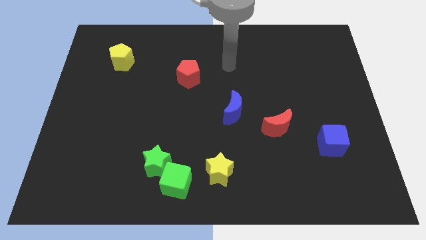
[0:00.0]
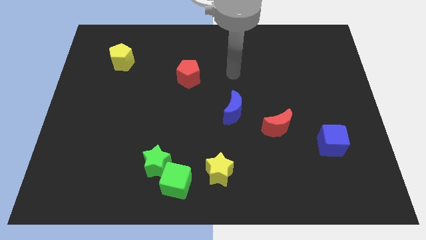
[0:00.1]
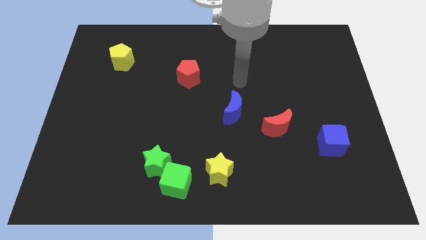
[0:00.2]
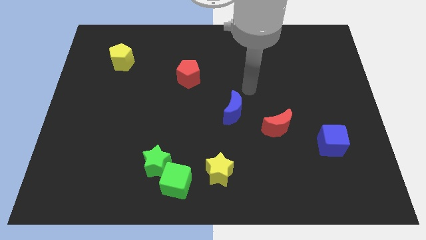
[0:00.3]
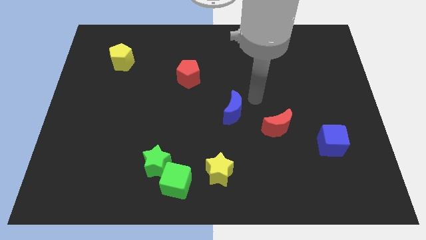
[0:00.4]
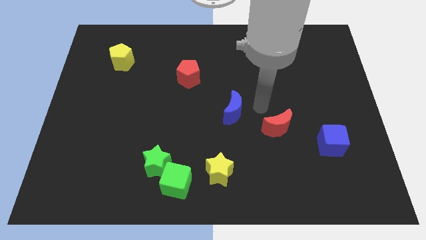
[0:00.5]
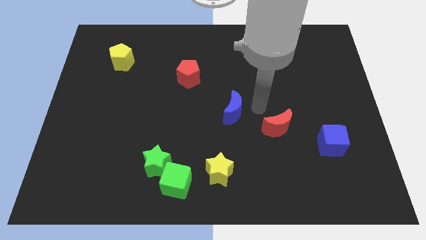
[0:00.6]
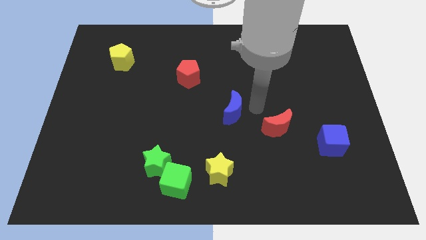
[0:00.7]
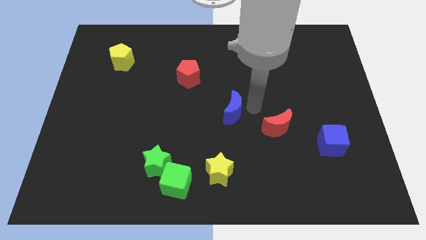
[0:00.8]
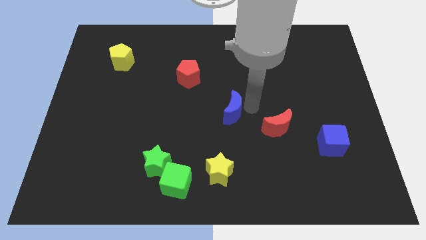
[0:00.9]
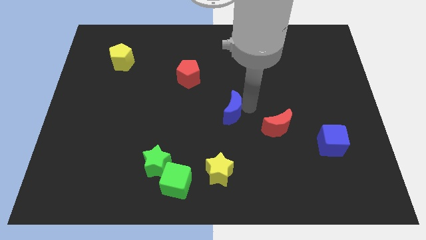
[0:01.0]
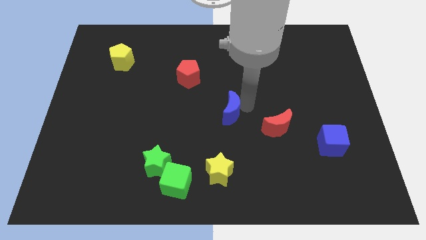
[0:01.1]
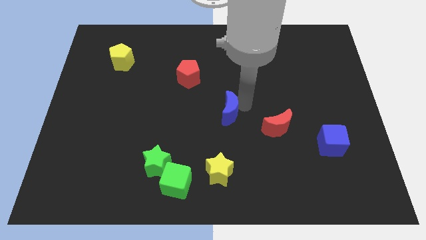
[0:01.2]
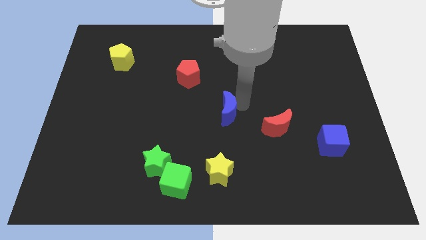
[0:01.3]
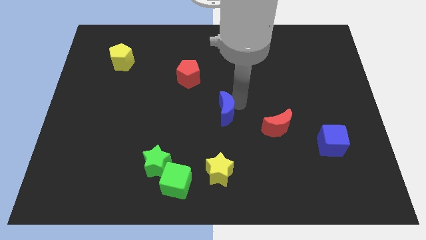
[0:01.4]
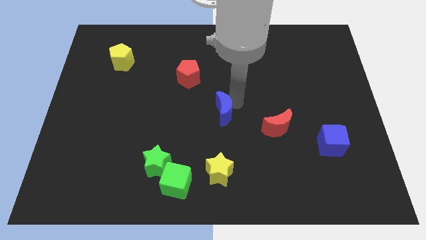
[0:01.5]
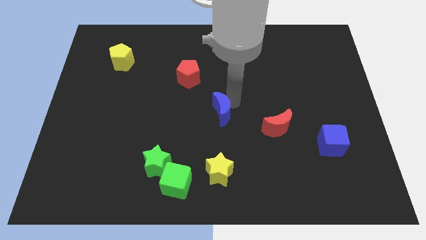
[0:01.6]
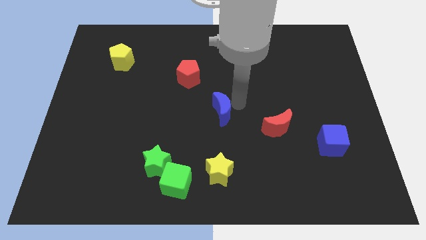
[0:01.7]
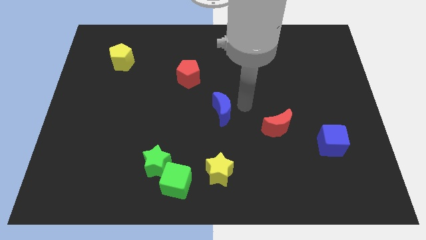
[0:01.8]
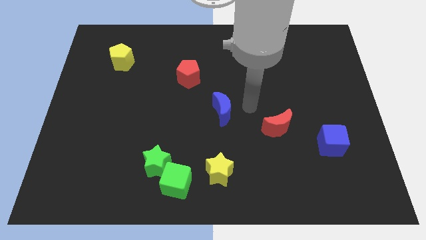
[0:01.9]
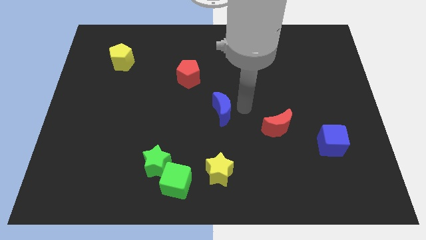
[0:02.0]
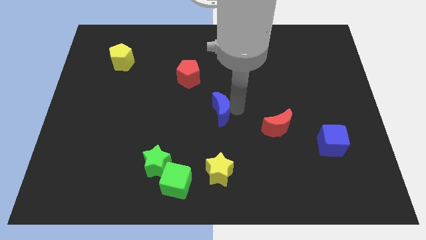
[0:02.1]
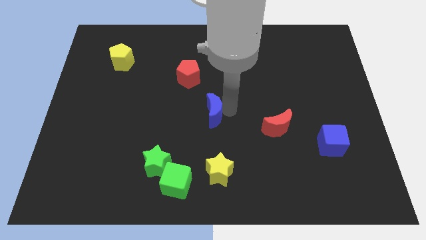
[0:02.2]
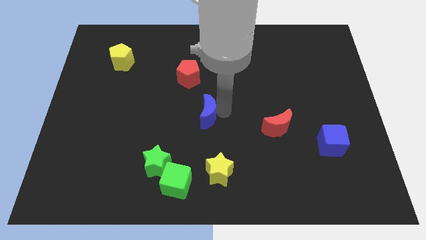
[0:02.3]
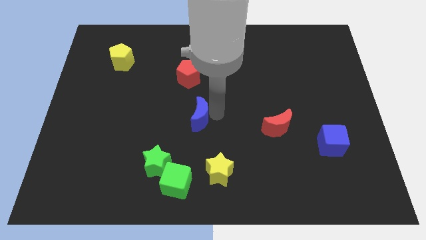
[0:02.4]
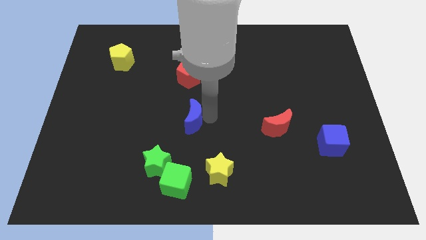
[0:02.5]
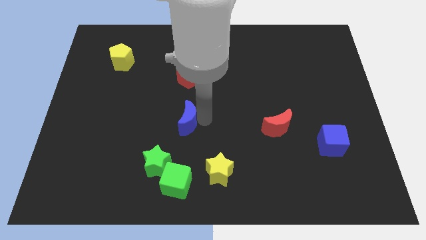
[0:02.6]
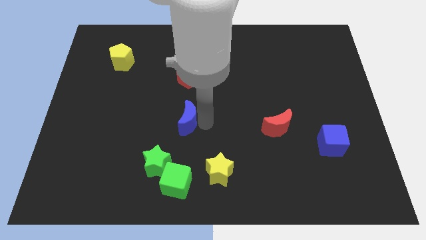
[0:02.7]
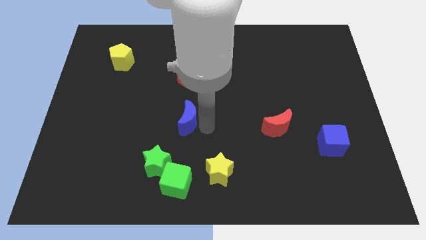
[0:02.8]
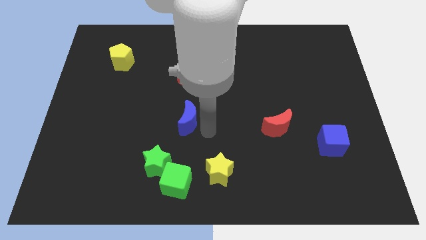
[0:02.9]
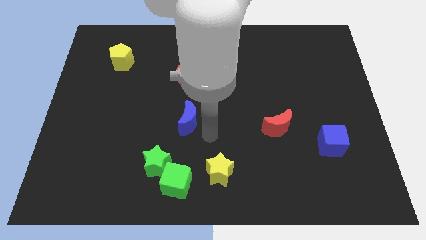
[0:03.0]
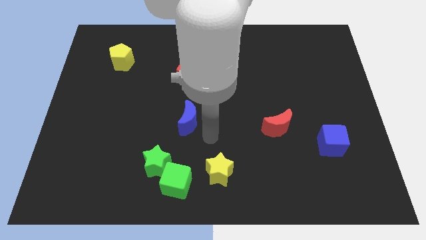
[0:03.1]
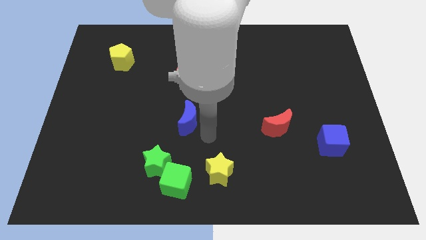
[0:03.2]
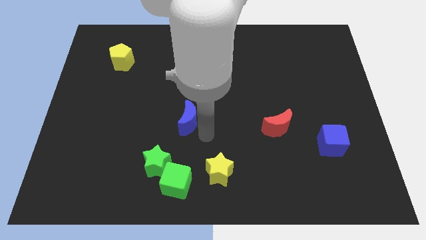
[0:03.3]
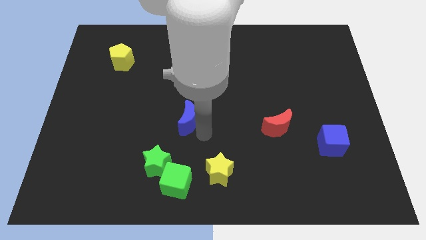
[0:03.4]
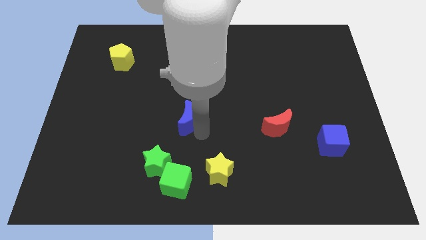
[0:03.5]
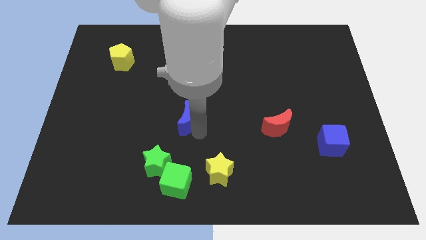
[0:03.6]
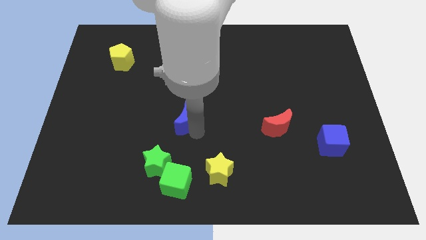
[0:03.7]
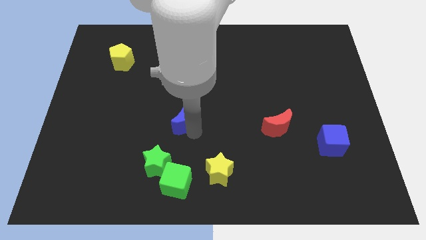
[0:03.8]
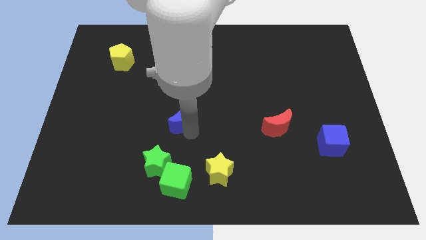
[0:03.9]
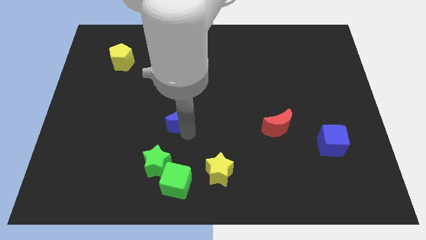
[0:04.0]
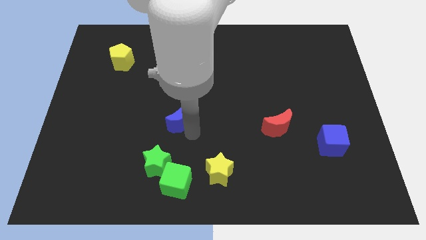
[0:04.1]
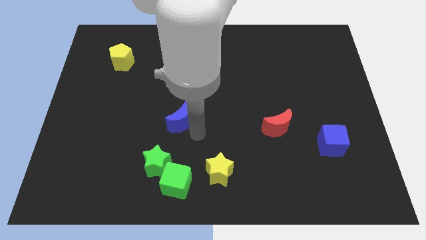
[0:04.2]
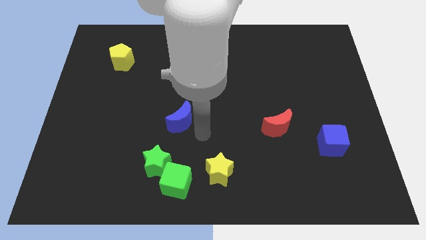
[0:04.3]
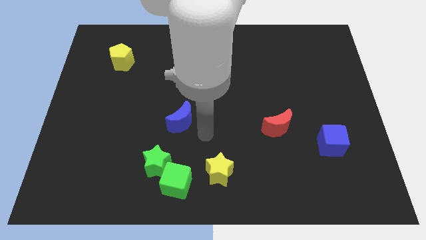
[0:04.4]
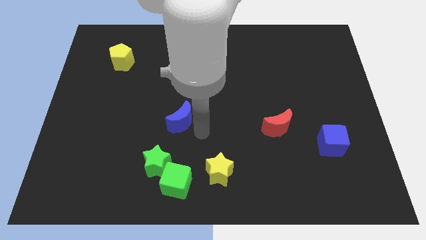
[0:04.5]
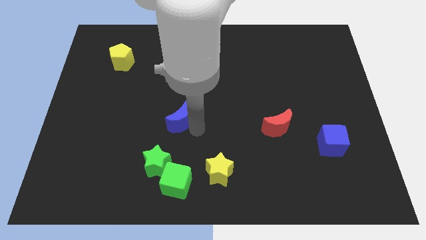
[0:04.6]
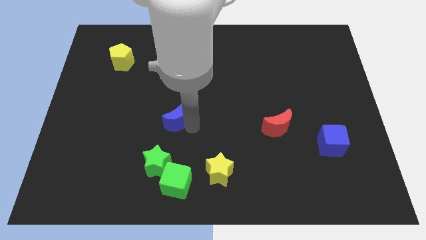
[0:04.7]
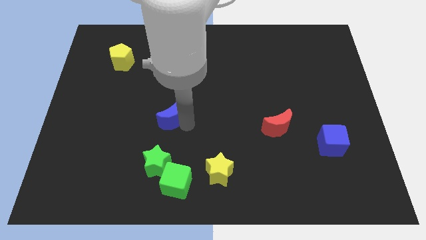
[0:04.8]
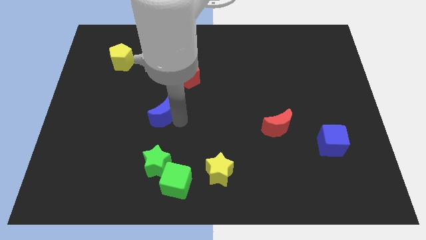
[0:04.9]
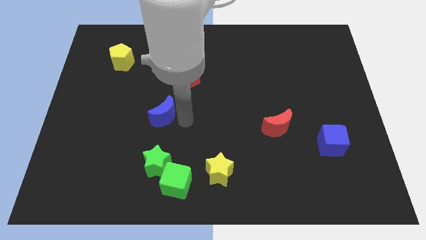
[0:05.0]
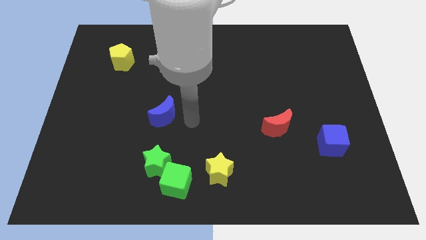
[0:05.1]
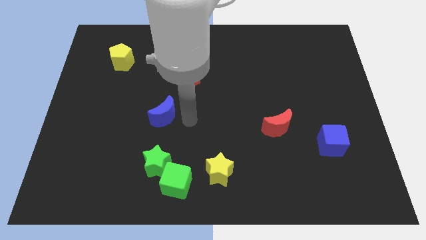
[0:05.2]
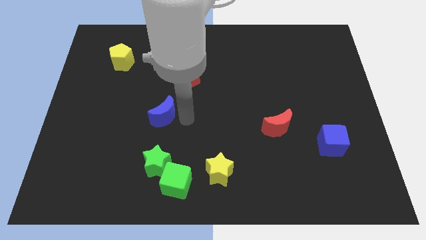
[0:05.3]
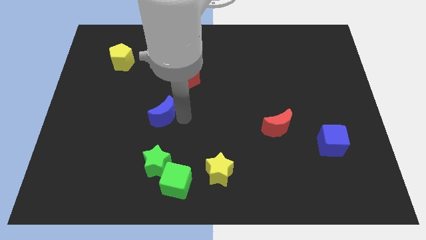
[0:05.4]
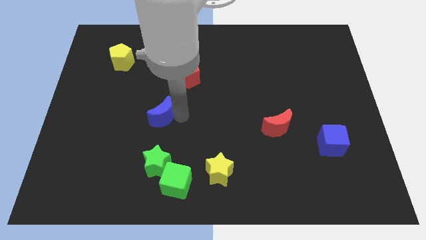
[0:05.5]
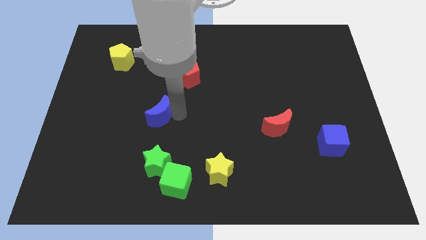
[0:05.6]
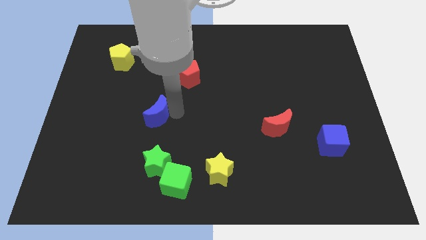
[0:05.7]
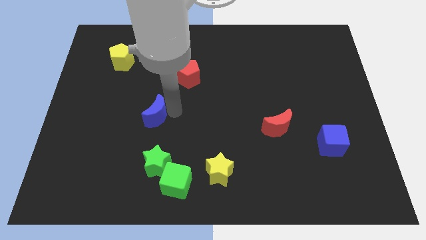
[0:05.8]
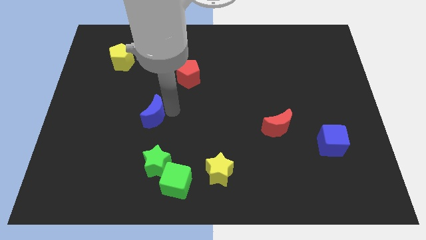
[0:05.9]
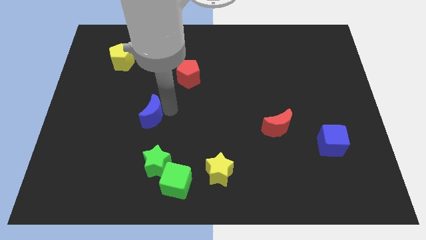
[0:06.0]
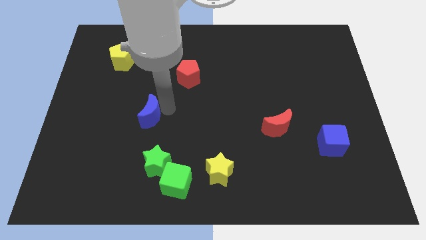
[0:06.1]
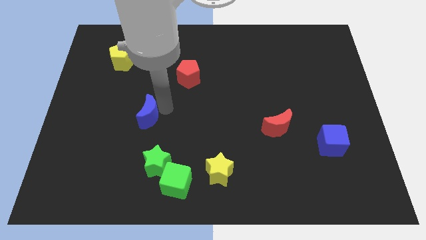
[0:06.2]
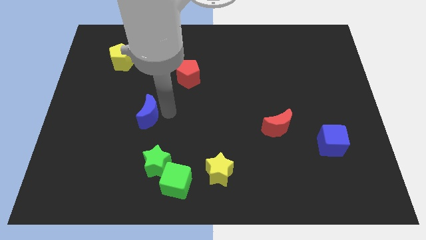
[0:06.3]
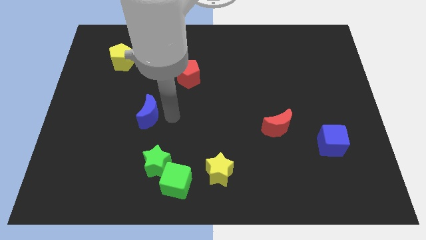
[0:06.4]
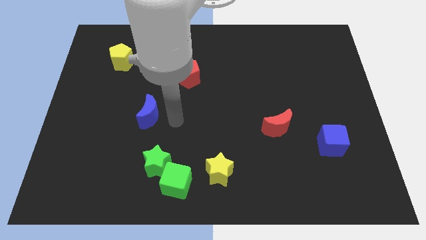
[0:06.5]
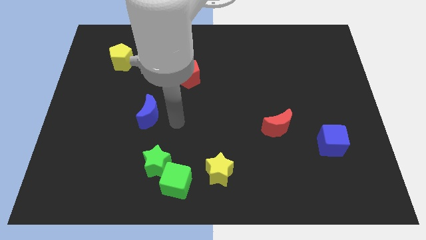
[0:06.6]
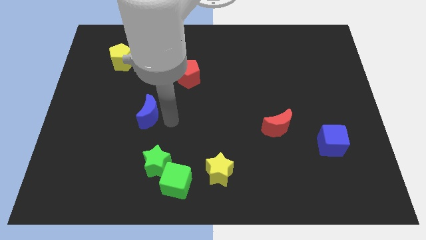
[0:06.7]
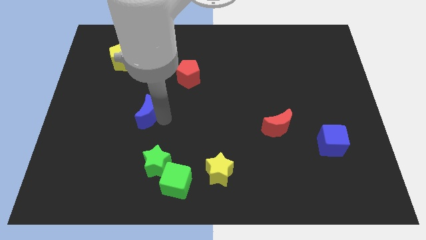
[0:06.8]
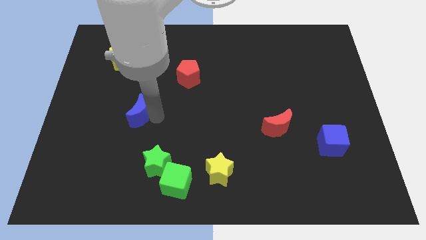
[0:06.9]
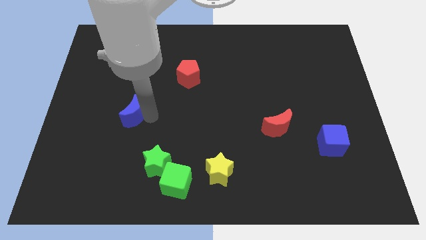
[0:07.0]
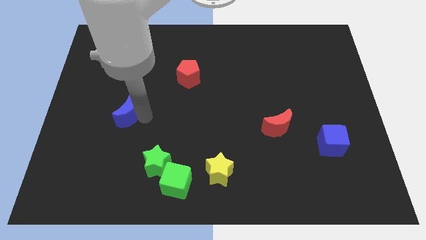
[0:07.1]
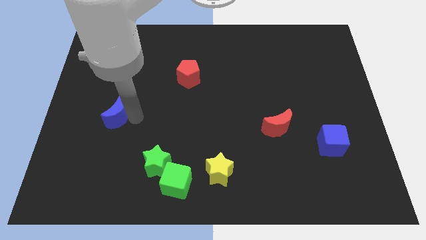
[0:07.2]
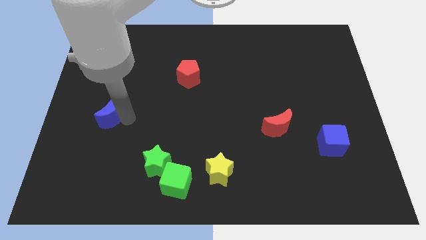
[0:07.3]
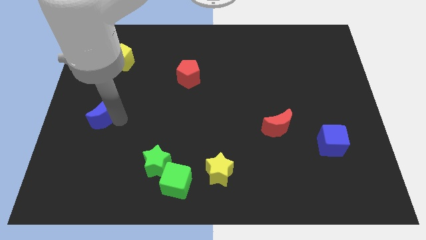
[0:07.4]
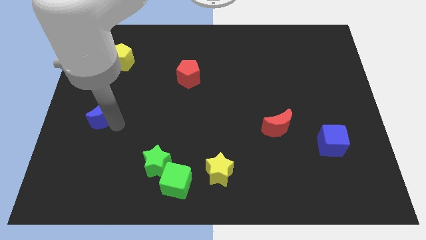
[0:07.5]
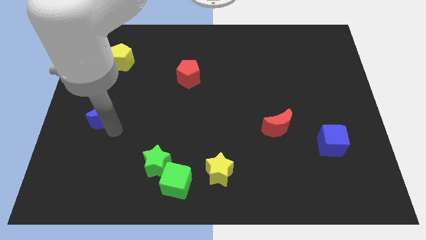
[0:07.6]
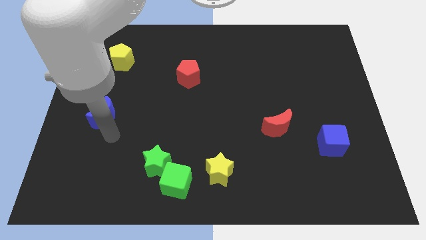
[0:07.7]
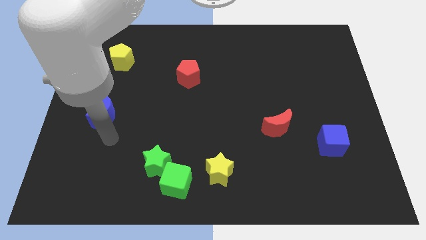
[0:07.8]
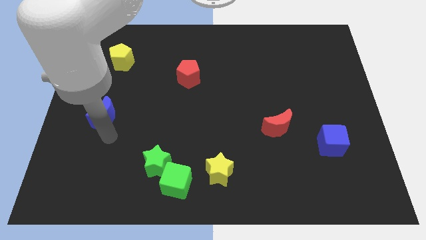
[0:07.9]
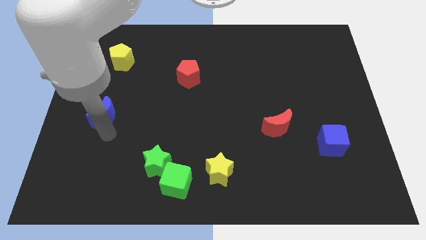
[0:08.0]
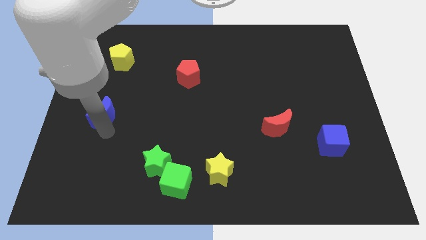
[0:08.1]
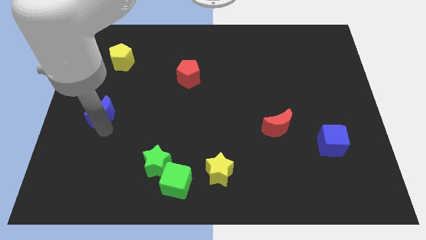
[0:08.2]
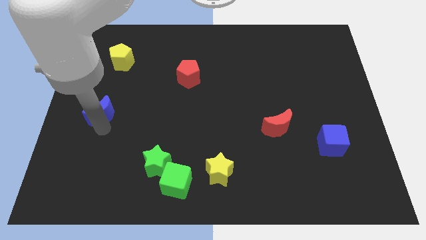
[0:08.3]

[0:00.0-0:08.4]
move the blue moon to the left side of the board
